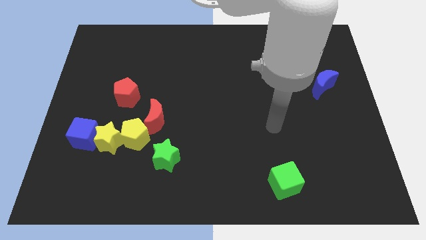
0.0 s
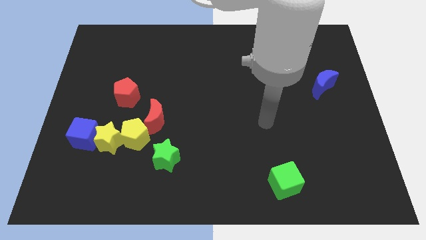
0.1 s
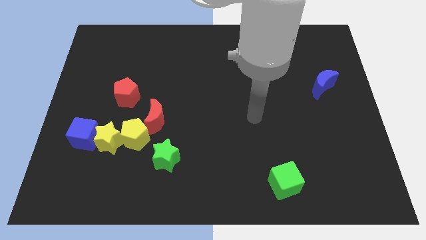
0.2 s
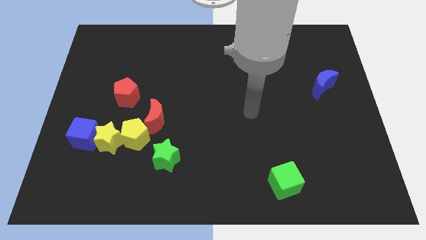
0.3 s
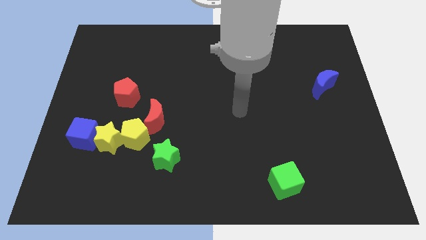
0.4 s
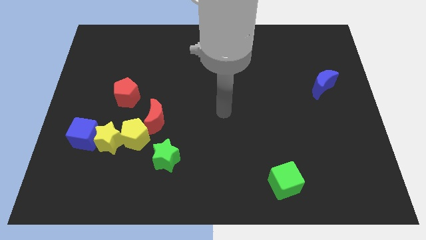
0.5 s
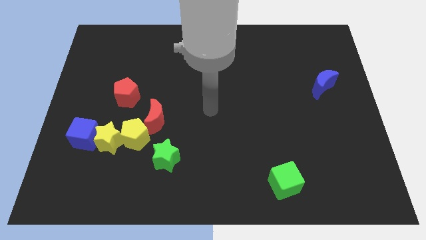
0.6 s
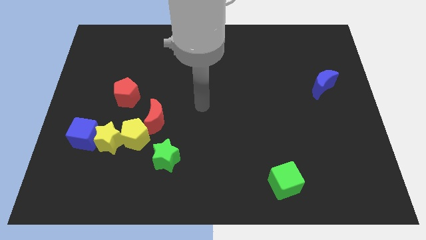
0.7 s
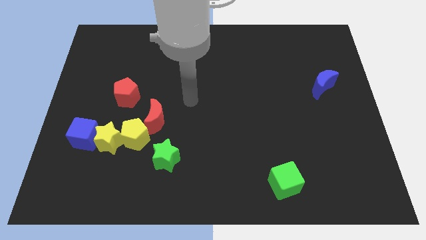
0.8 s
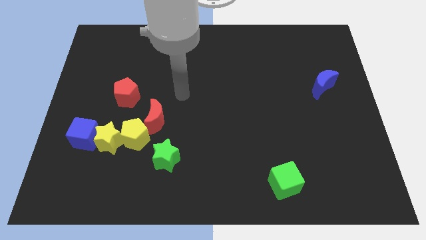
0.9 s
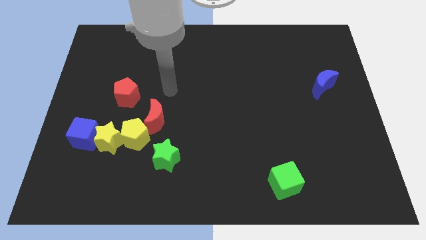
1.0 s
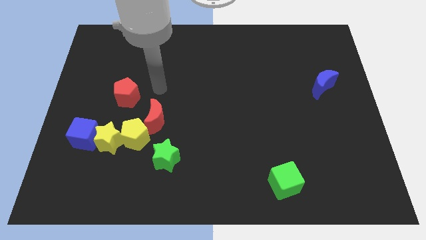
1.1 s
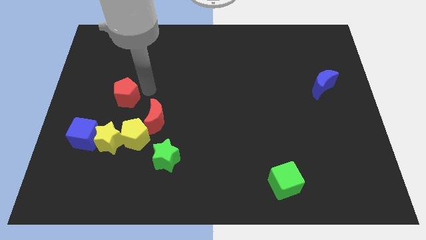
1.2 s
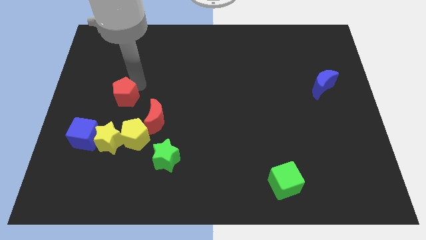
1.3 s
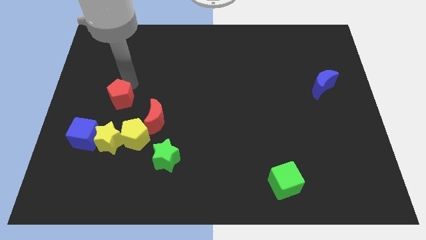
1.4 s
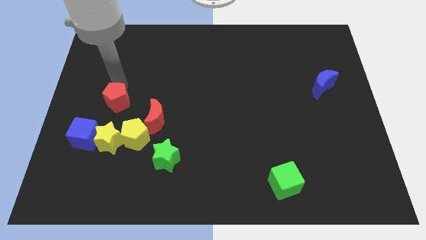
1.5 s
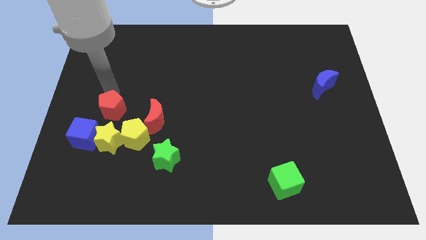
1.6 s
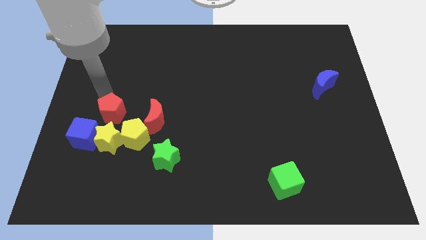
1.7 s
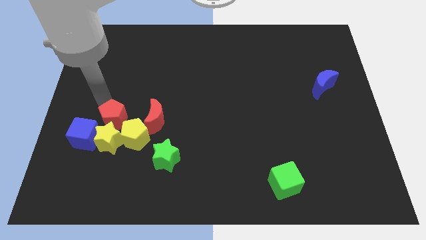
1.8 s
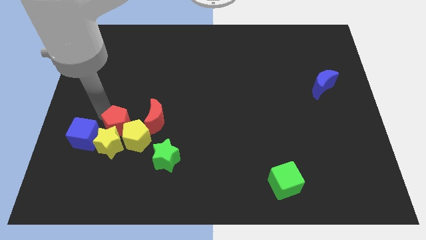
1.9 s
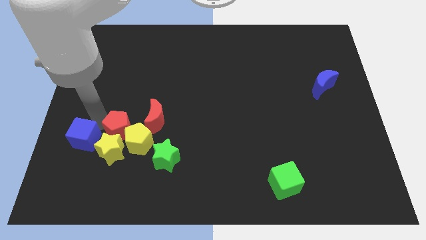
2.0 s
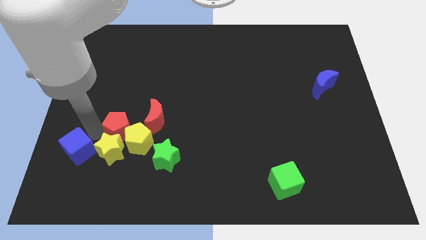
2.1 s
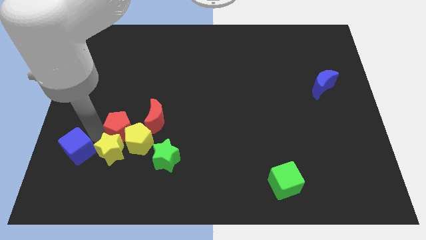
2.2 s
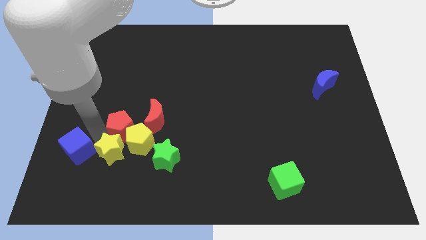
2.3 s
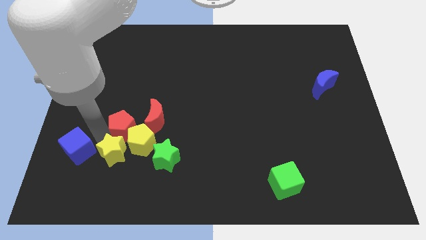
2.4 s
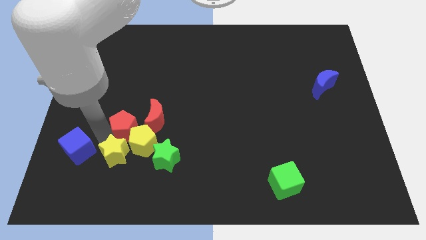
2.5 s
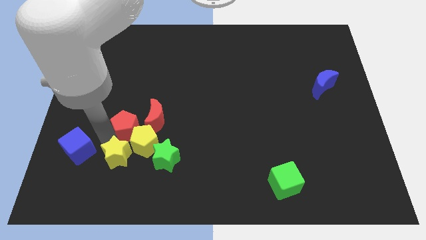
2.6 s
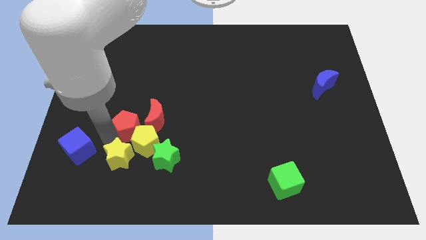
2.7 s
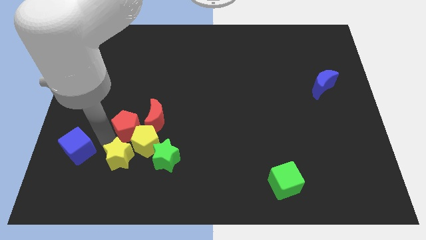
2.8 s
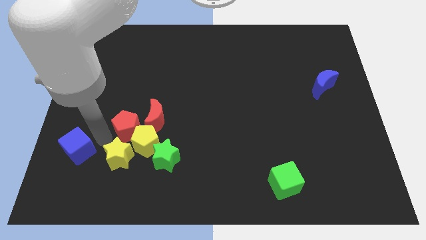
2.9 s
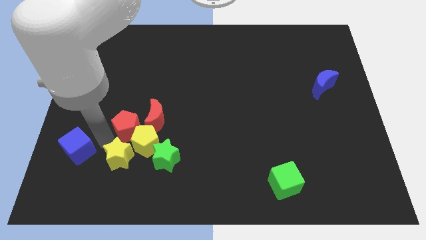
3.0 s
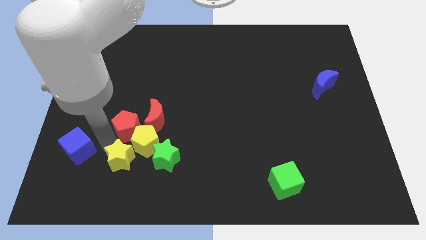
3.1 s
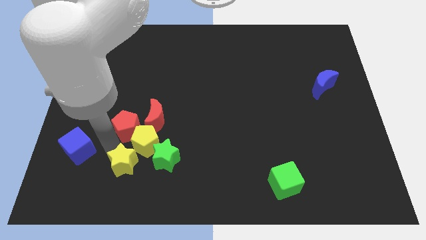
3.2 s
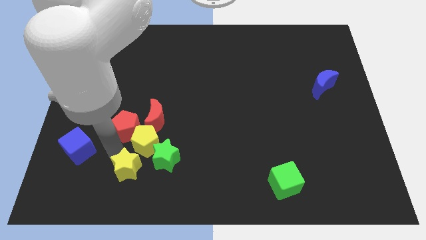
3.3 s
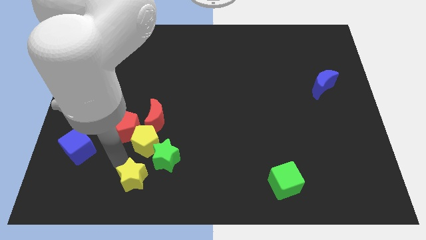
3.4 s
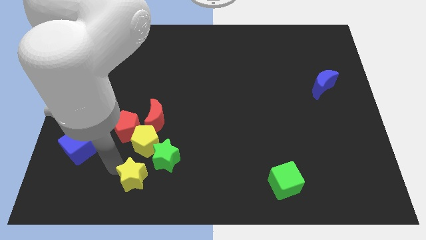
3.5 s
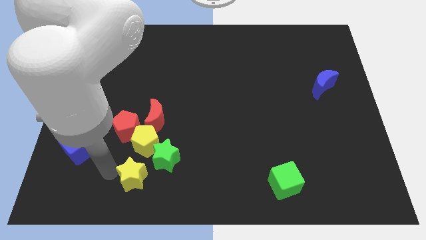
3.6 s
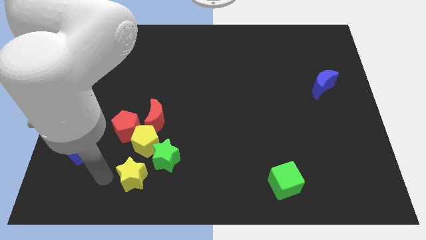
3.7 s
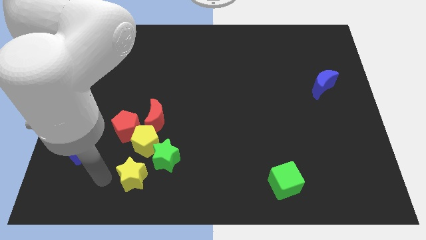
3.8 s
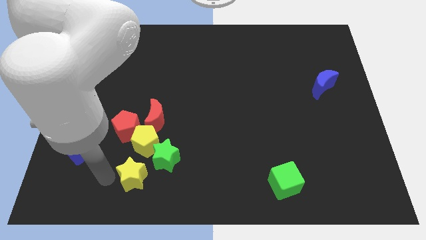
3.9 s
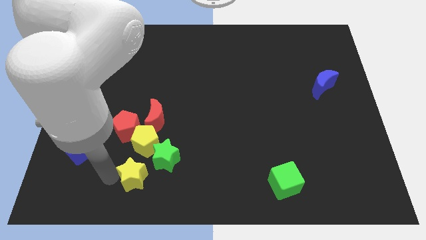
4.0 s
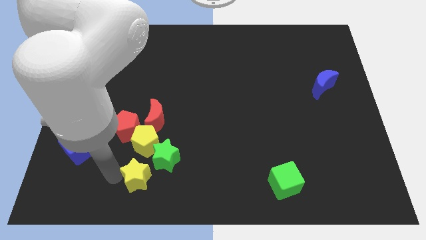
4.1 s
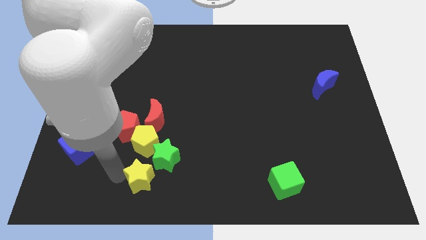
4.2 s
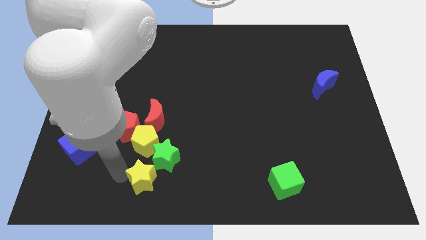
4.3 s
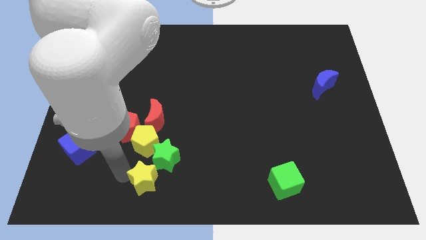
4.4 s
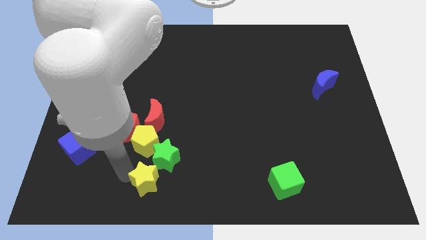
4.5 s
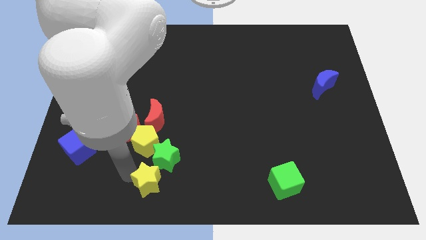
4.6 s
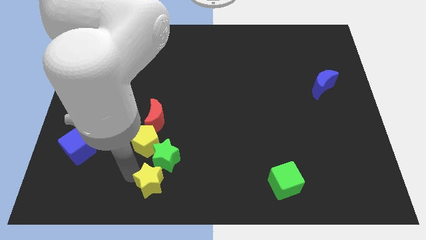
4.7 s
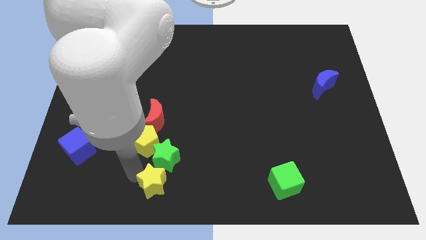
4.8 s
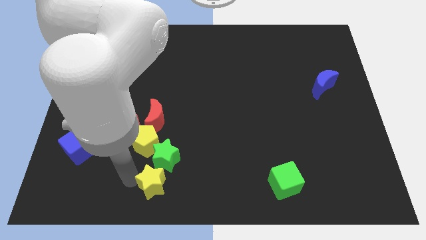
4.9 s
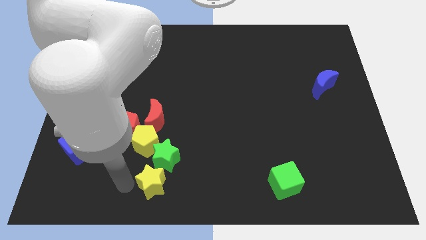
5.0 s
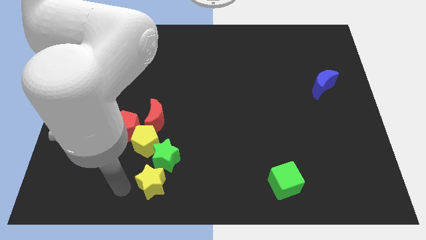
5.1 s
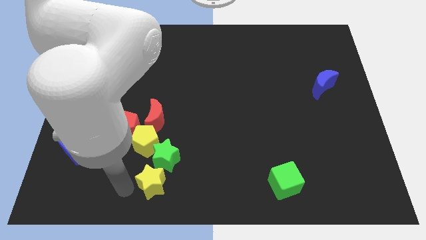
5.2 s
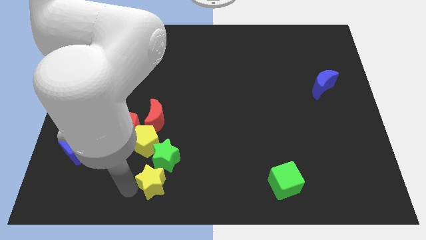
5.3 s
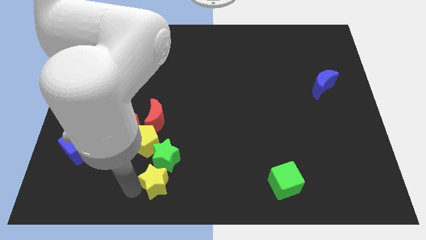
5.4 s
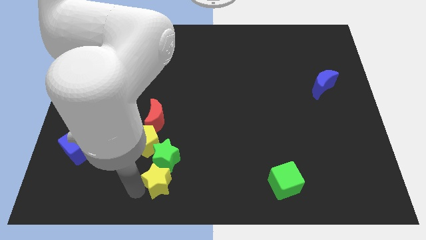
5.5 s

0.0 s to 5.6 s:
push the yellow star to the bottom right of the green star

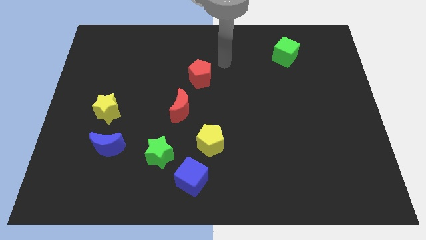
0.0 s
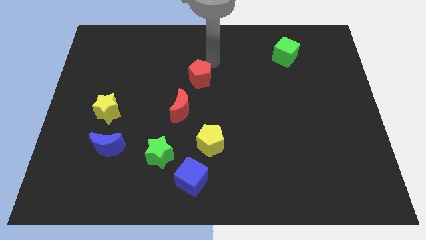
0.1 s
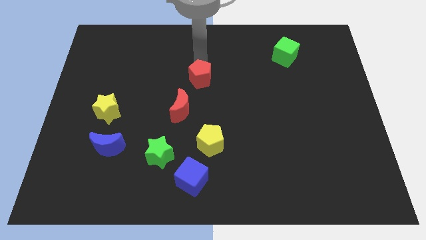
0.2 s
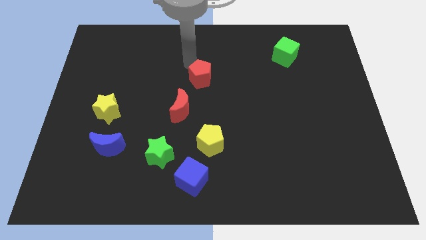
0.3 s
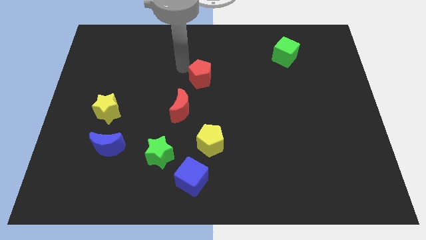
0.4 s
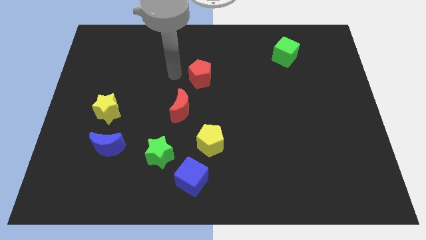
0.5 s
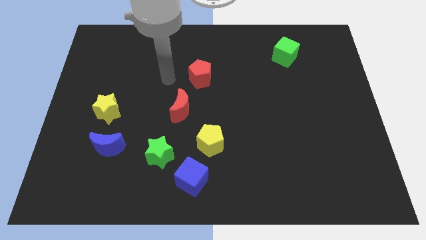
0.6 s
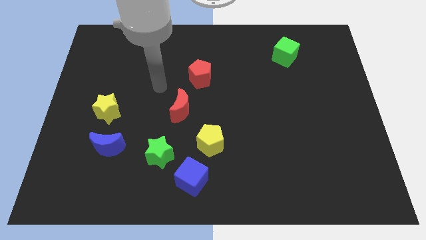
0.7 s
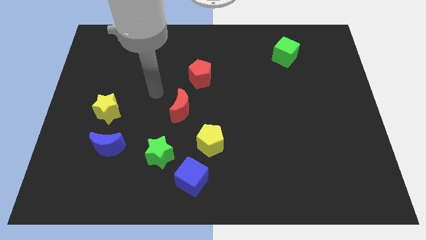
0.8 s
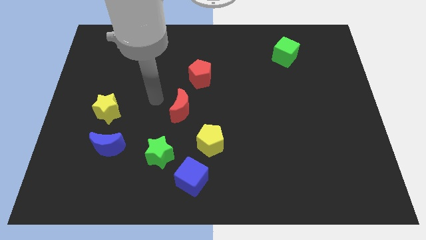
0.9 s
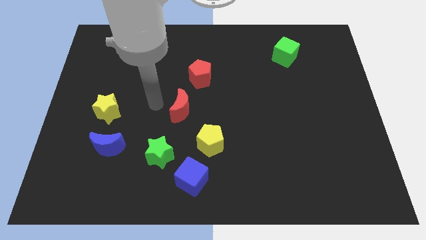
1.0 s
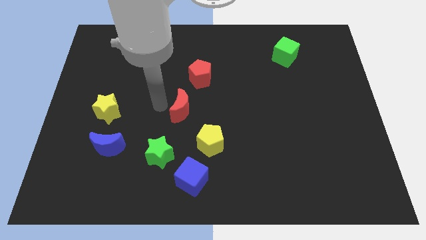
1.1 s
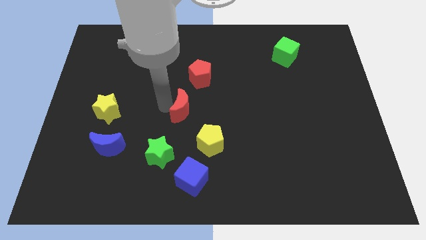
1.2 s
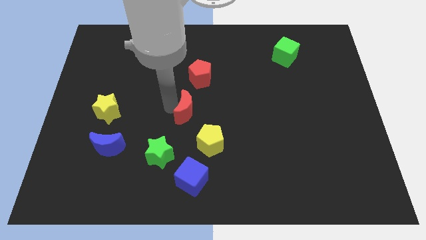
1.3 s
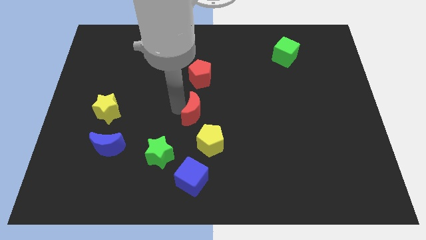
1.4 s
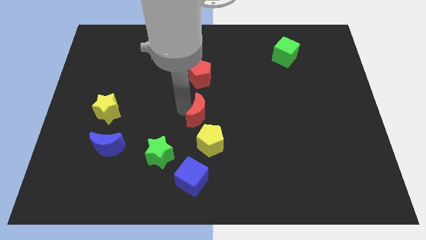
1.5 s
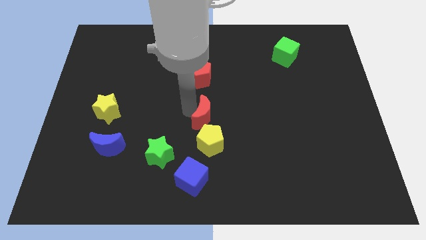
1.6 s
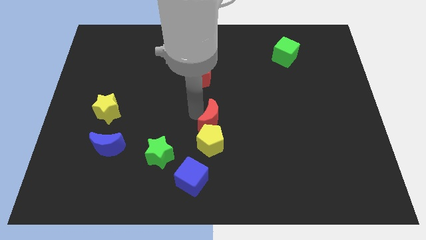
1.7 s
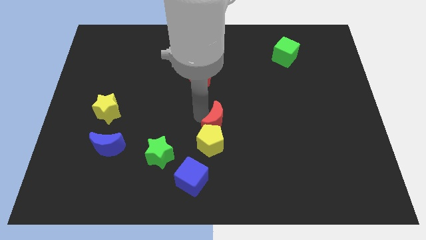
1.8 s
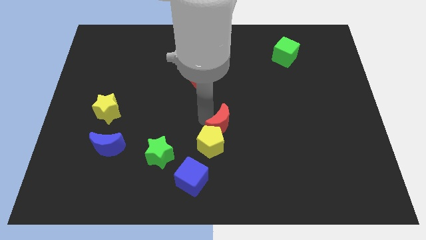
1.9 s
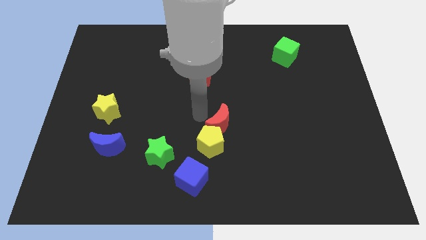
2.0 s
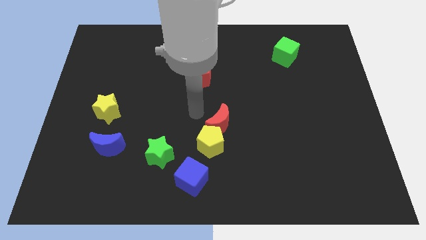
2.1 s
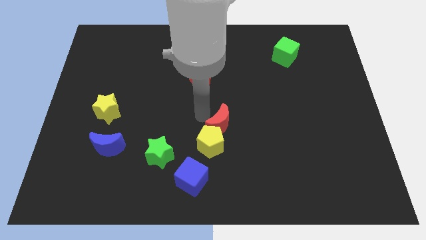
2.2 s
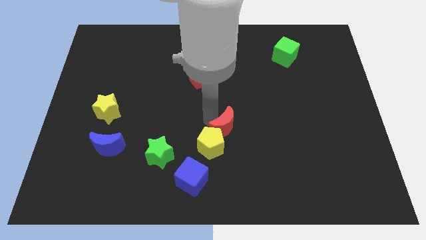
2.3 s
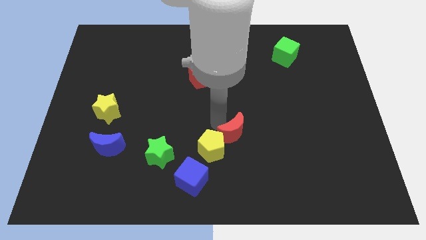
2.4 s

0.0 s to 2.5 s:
put the red moon right of the yellow pentagon
